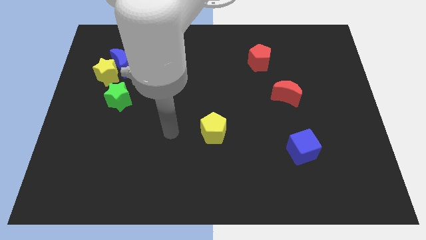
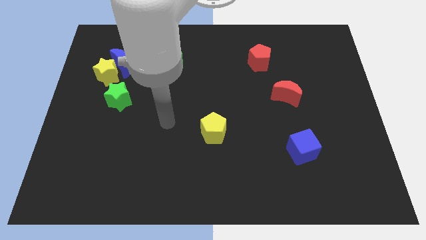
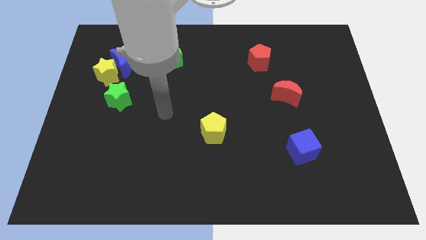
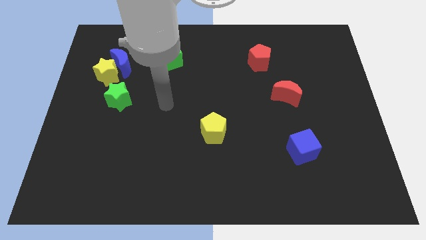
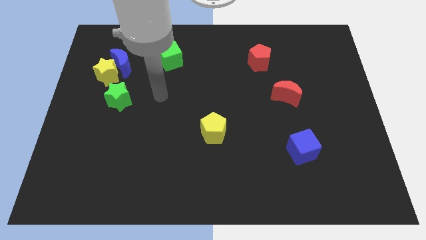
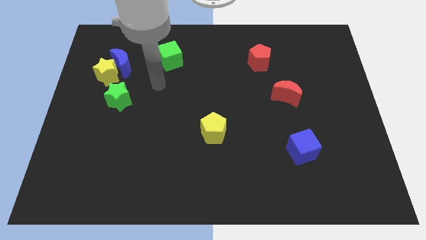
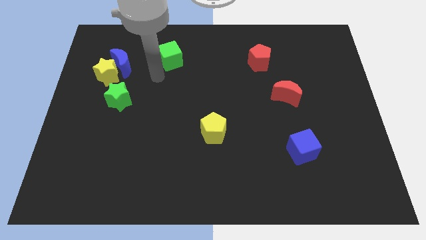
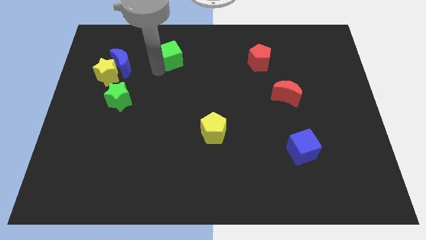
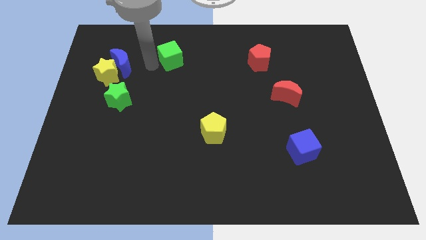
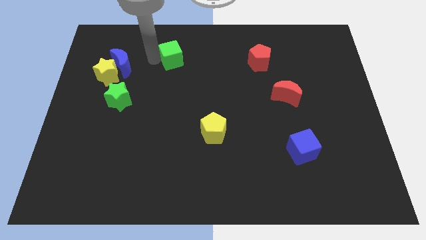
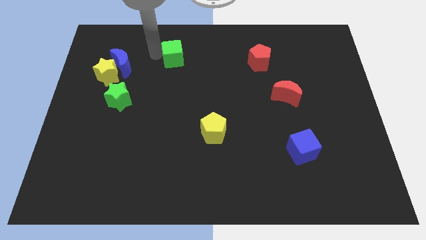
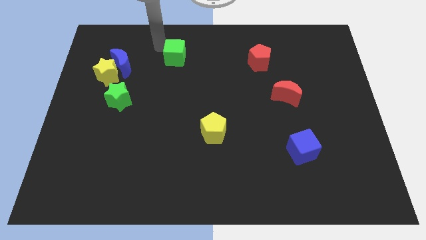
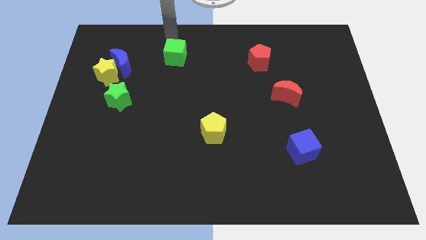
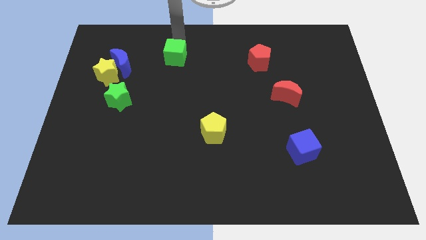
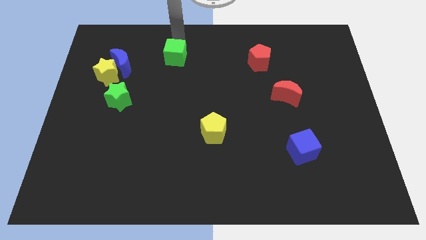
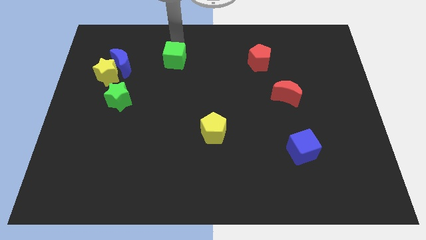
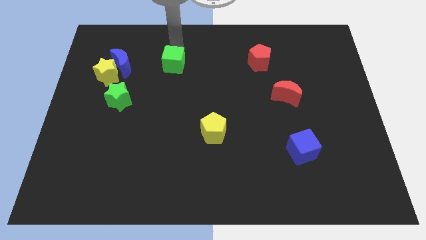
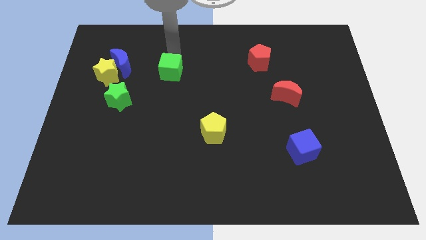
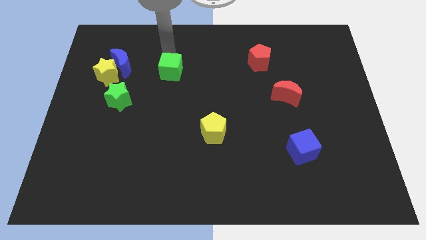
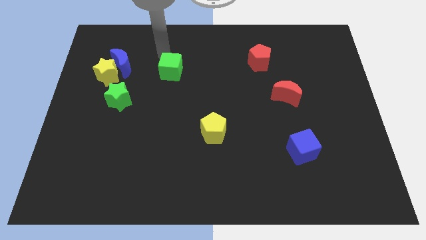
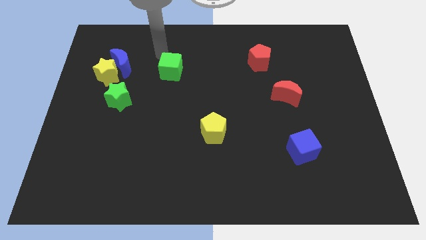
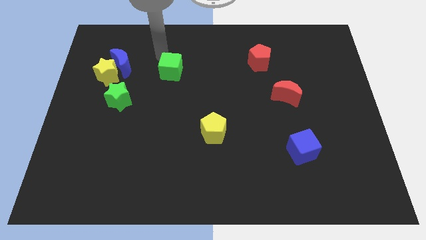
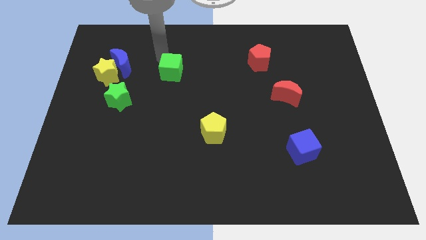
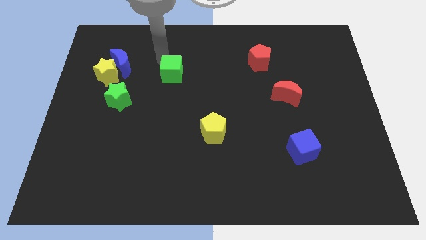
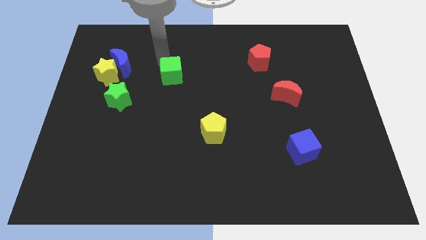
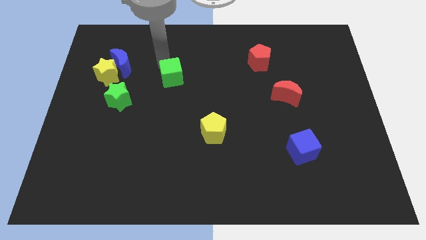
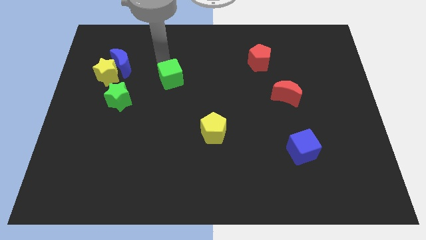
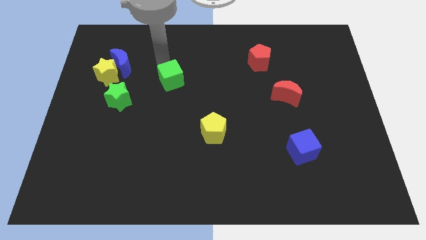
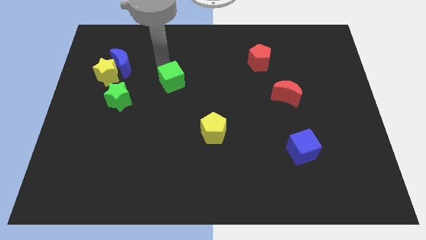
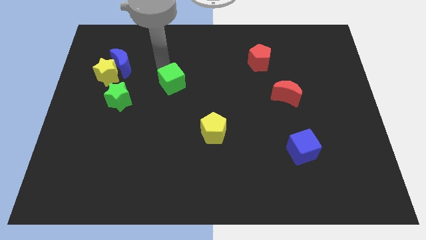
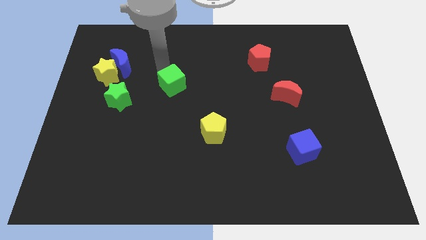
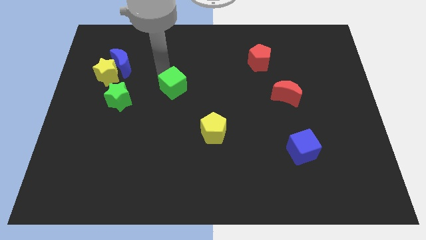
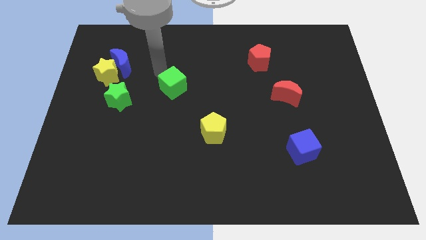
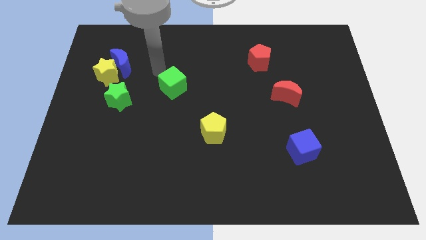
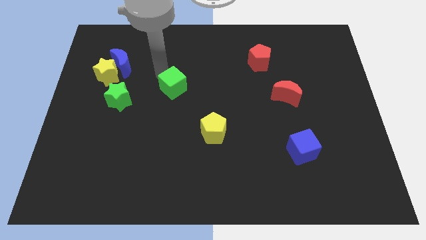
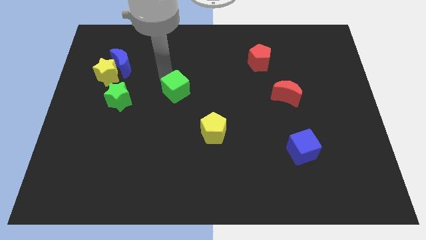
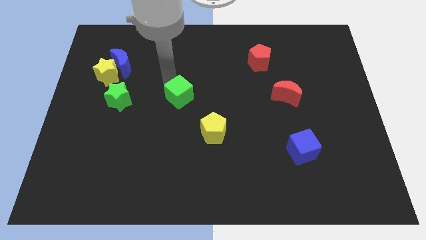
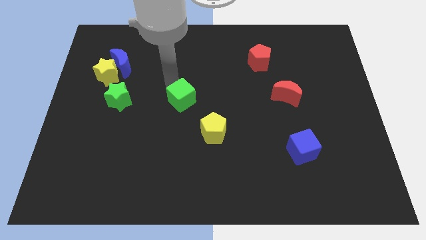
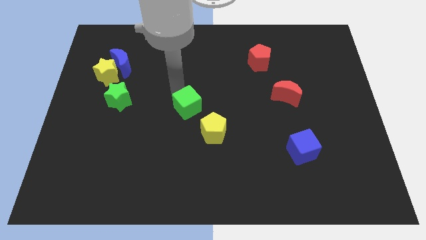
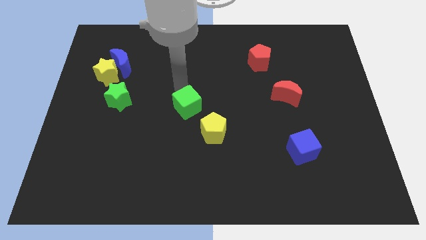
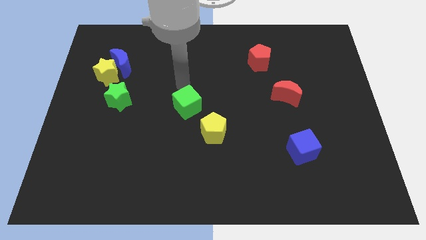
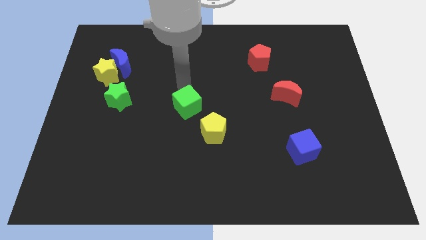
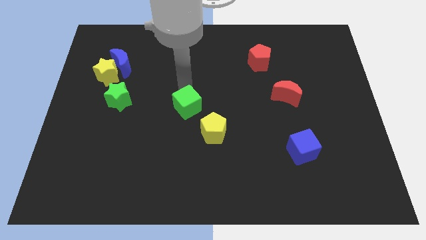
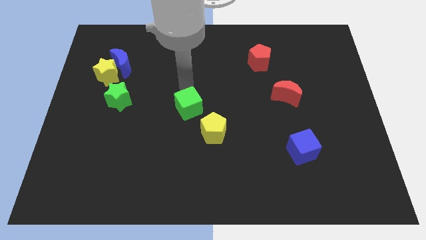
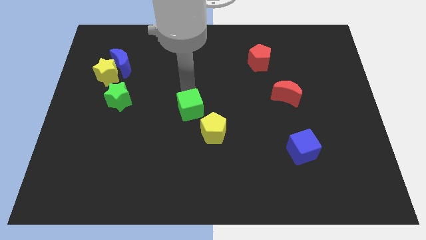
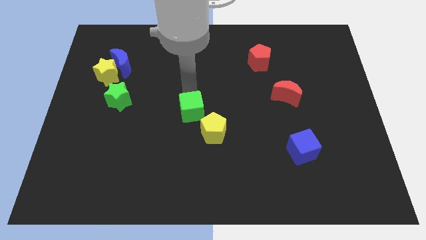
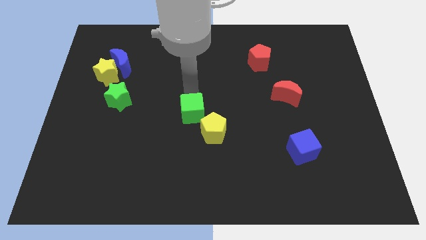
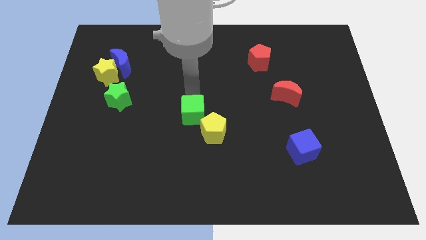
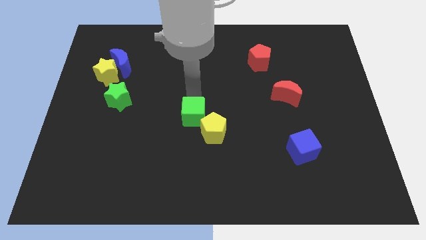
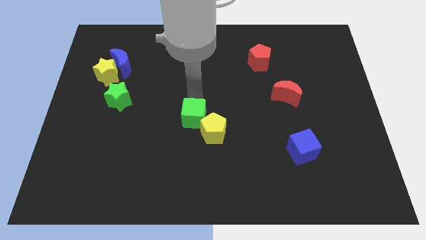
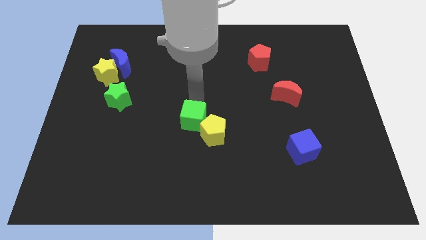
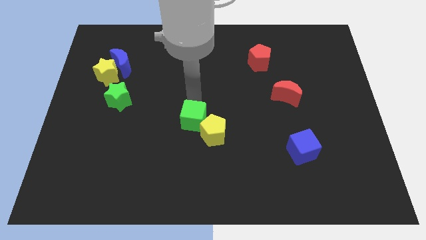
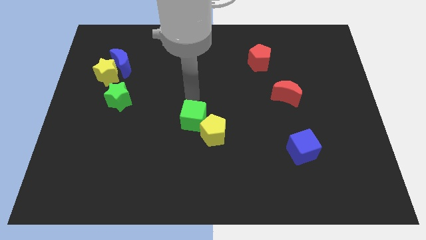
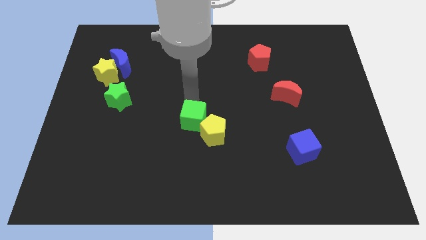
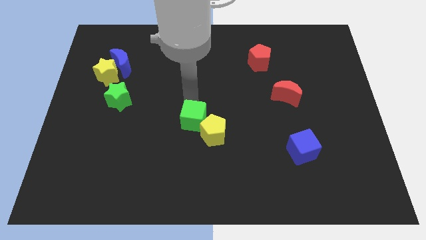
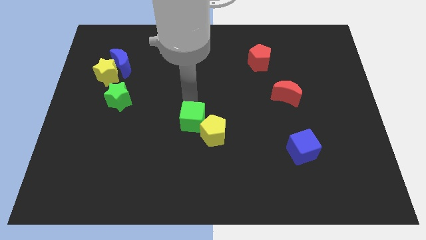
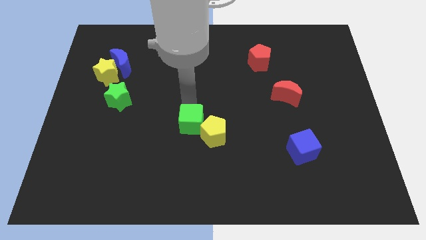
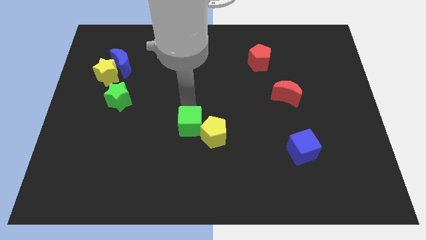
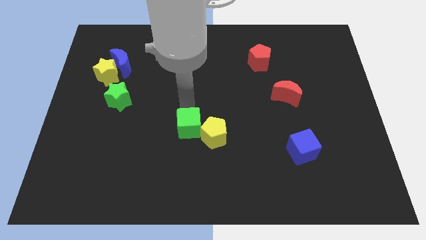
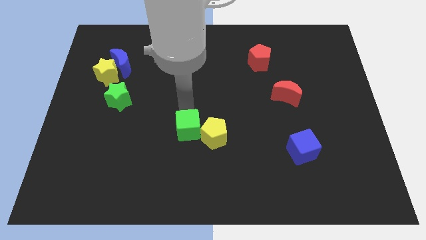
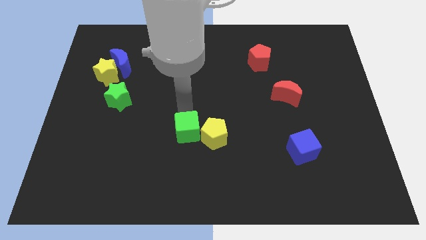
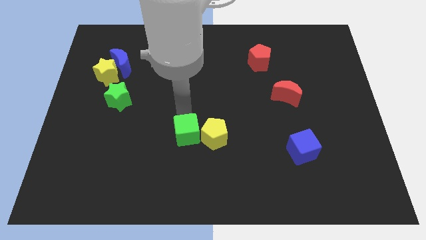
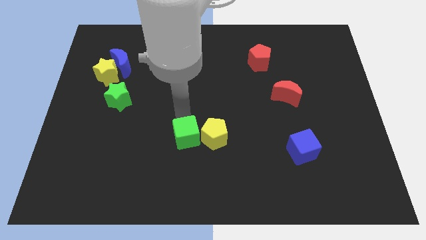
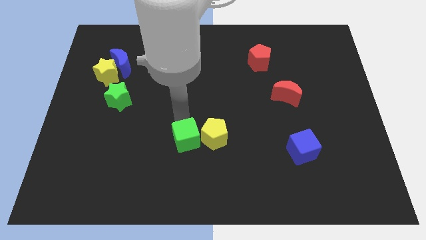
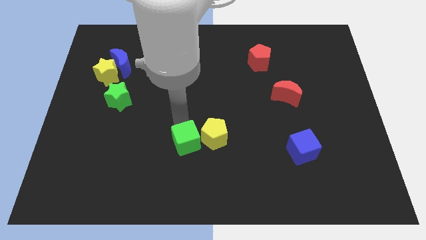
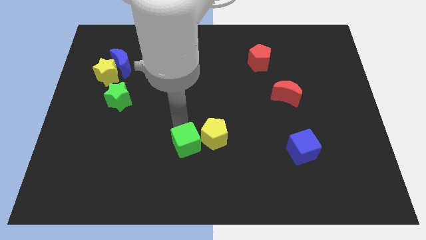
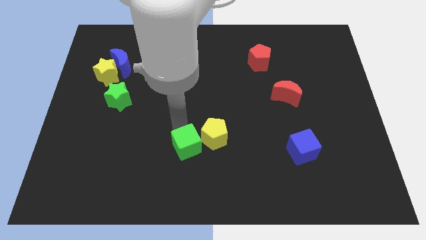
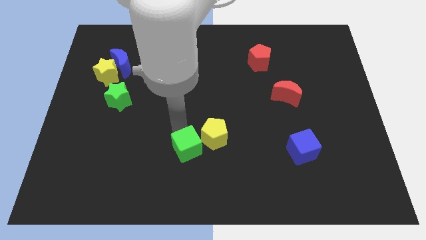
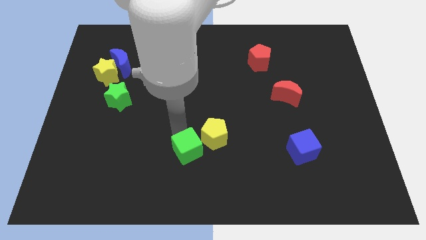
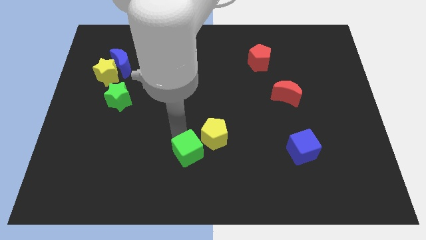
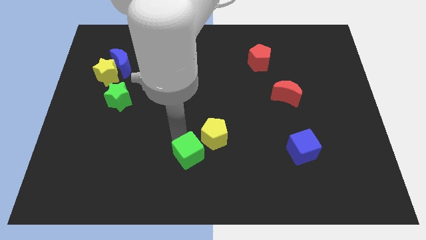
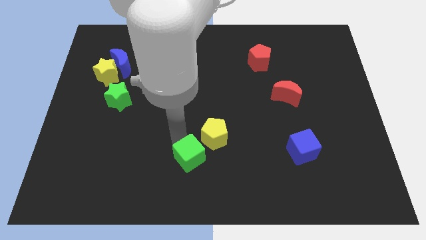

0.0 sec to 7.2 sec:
put the green cube to the bottom side
